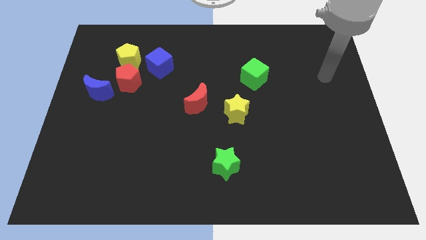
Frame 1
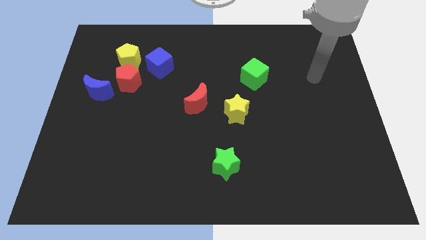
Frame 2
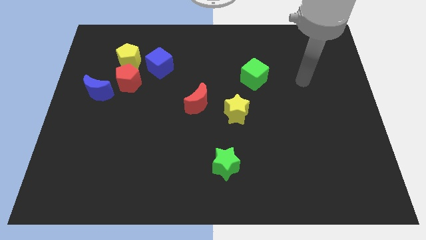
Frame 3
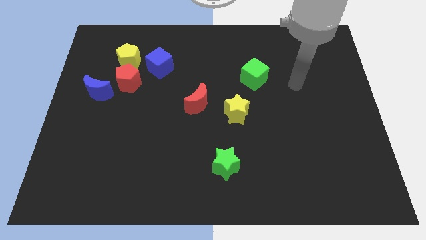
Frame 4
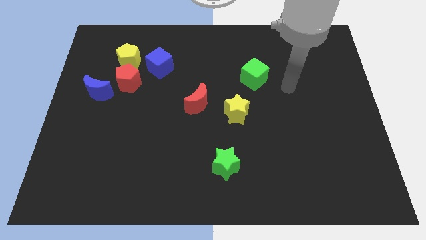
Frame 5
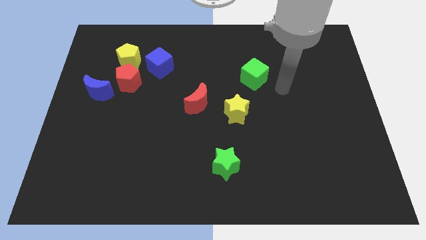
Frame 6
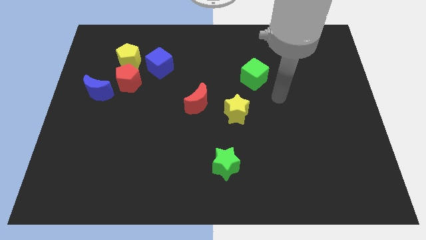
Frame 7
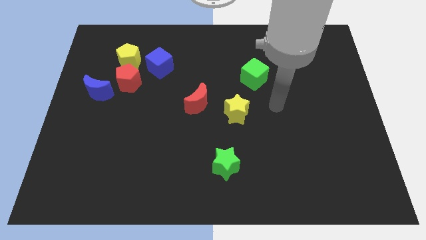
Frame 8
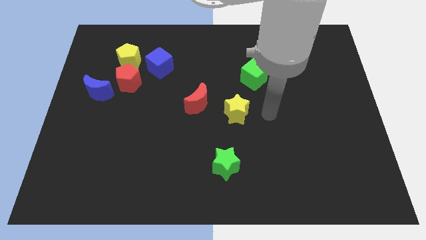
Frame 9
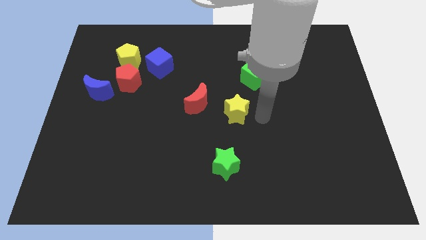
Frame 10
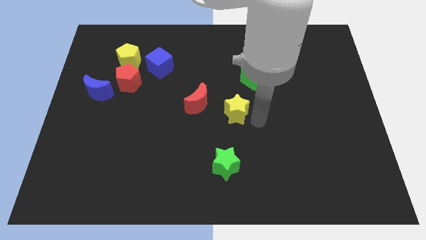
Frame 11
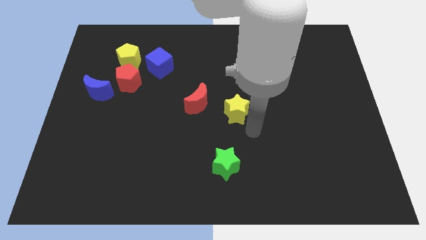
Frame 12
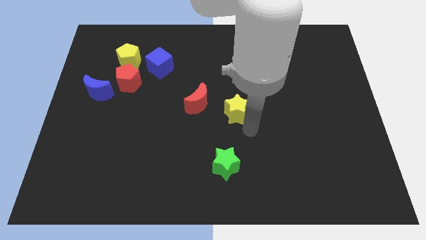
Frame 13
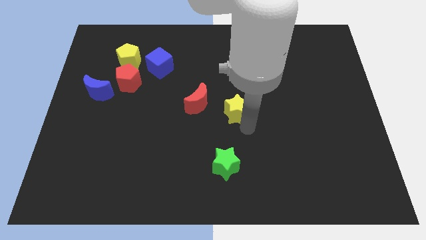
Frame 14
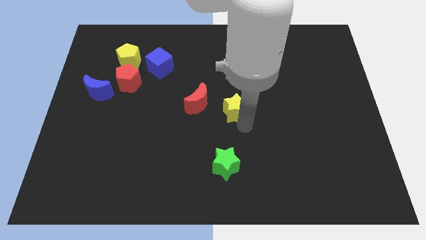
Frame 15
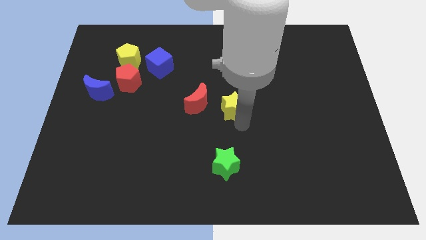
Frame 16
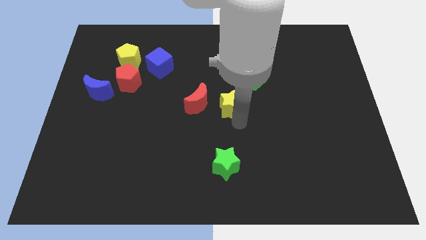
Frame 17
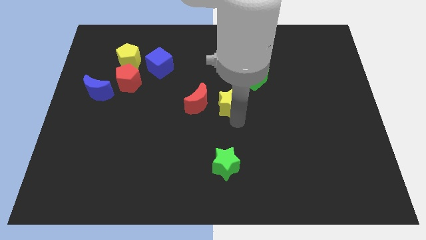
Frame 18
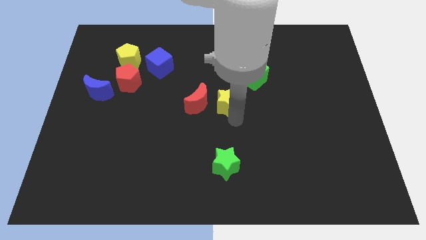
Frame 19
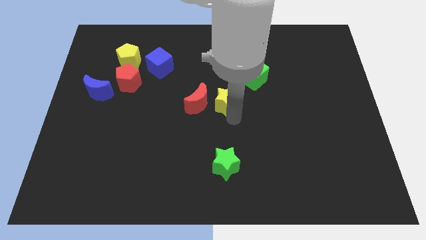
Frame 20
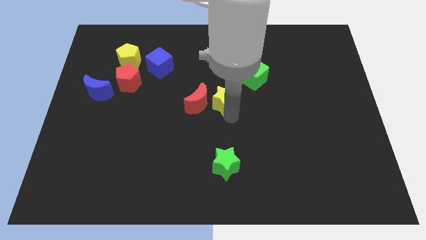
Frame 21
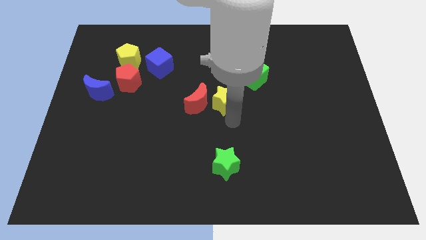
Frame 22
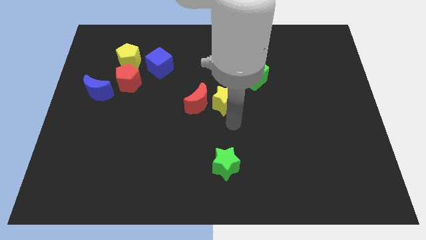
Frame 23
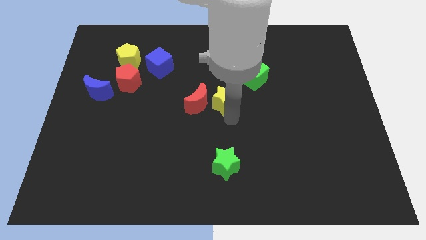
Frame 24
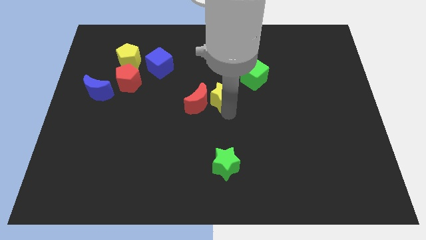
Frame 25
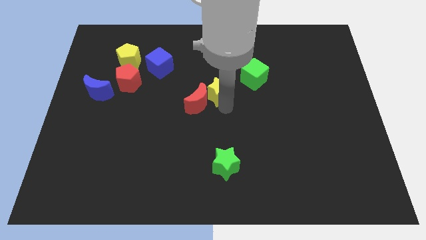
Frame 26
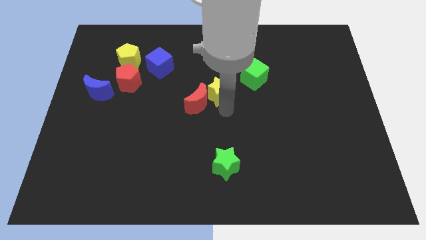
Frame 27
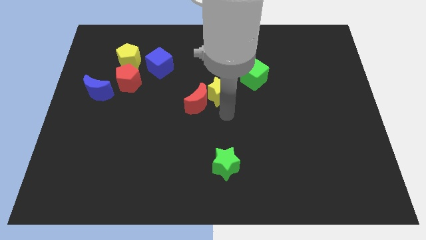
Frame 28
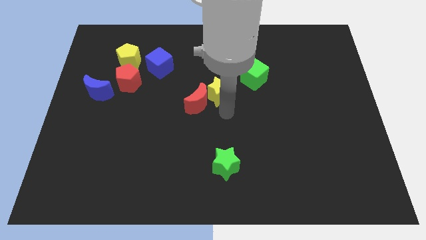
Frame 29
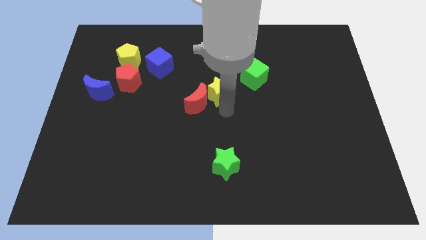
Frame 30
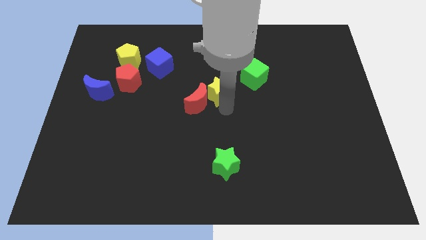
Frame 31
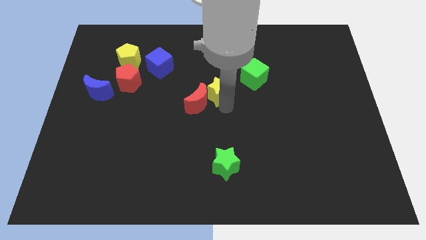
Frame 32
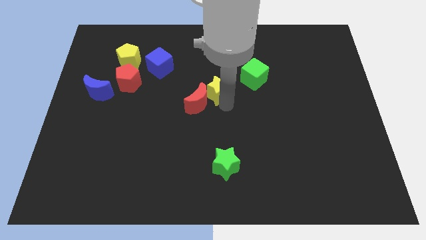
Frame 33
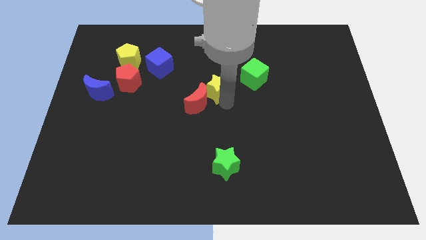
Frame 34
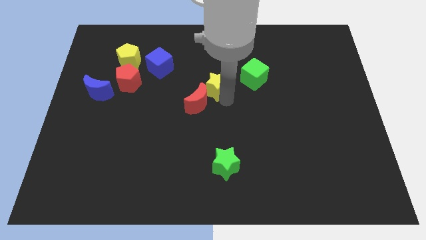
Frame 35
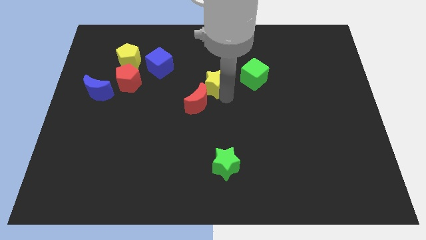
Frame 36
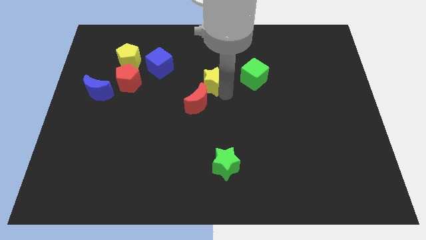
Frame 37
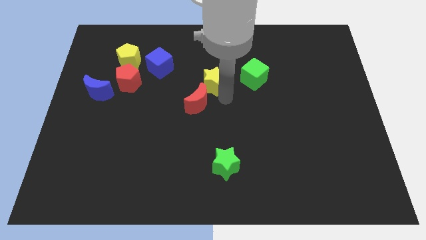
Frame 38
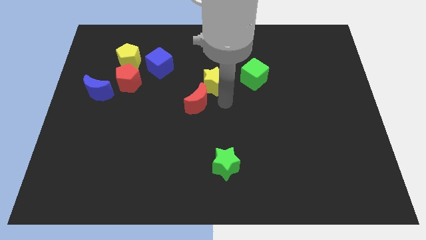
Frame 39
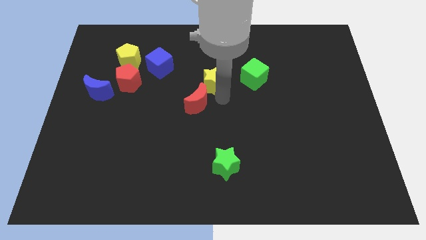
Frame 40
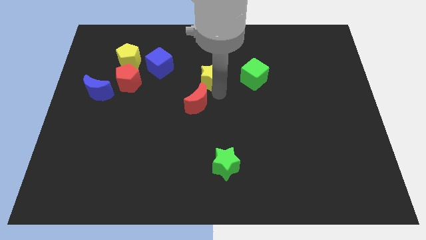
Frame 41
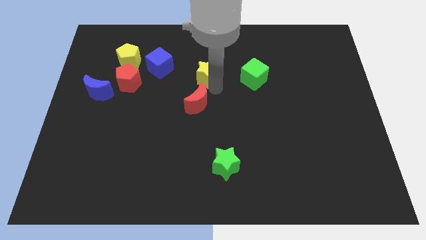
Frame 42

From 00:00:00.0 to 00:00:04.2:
put the yellow star just right of the blue cube

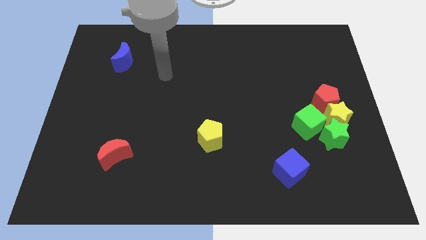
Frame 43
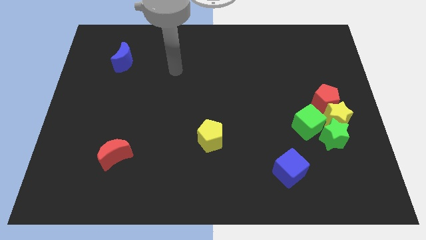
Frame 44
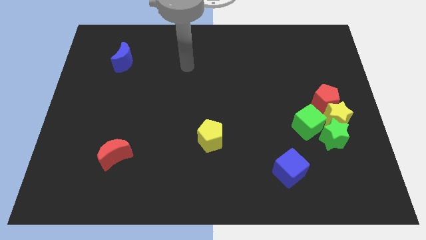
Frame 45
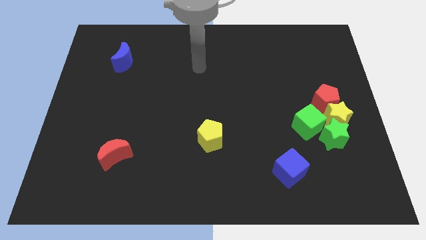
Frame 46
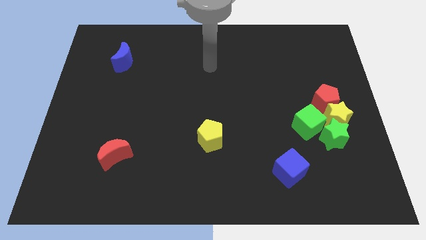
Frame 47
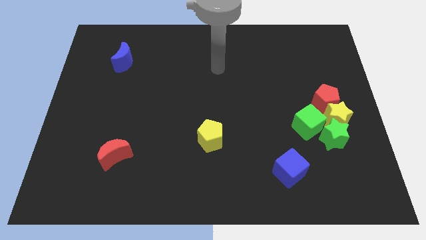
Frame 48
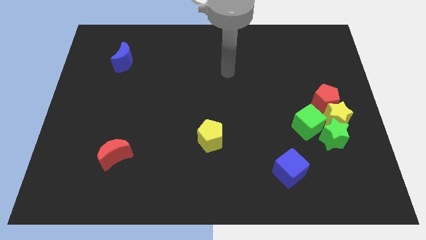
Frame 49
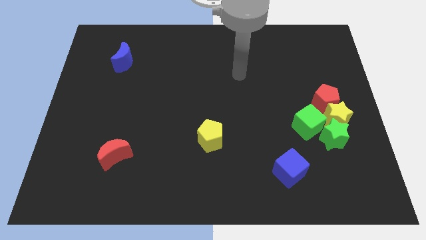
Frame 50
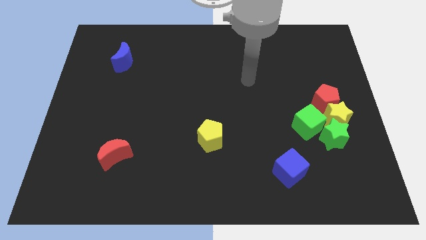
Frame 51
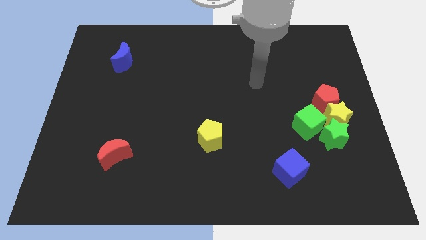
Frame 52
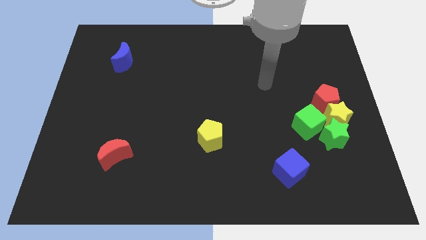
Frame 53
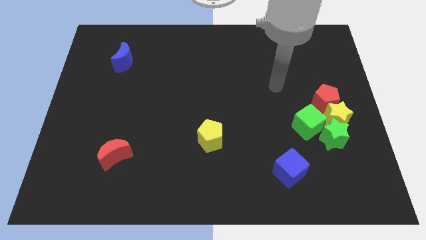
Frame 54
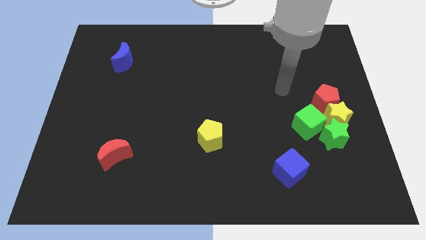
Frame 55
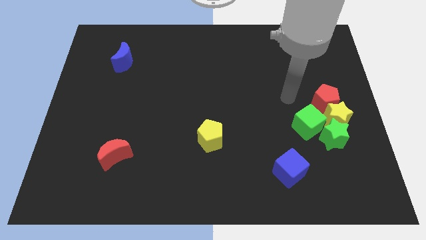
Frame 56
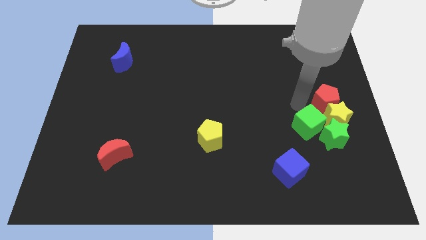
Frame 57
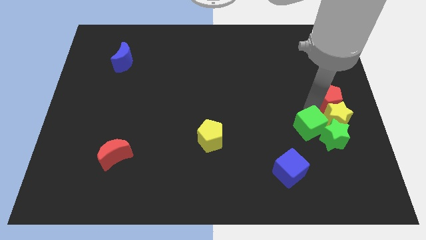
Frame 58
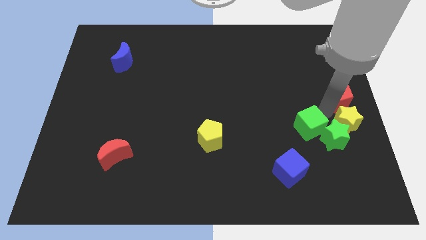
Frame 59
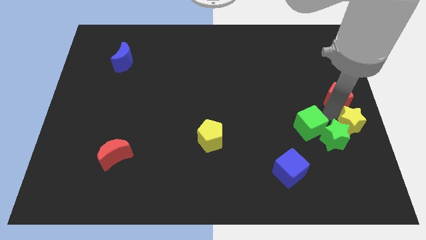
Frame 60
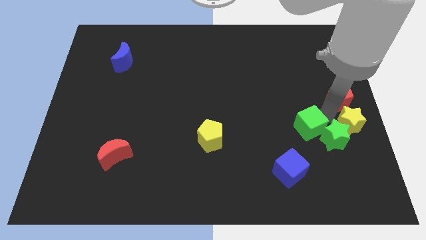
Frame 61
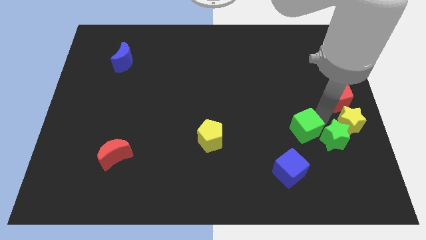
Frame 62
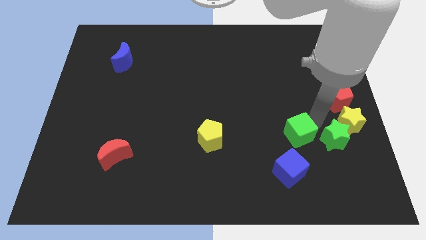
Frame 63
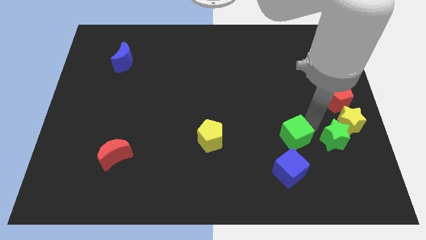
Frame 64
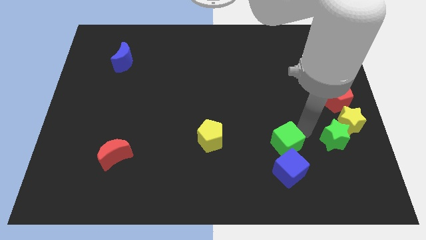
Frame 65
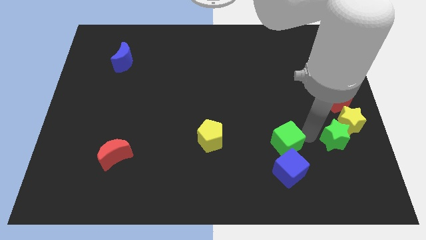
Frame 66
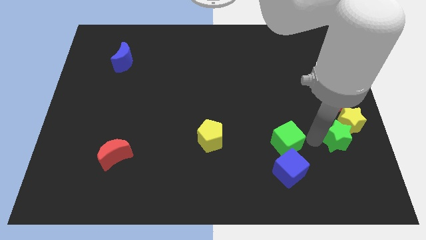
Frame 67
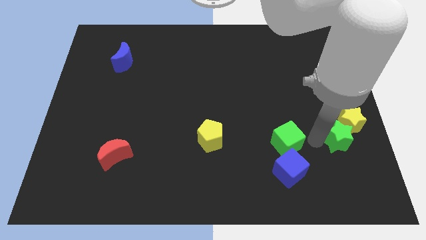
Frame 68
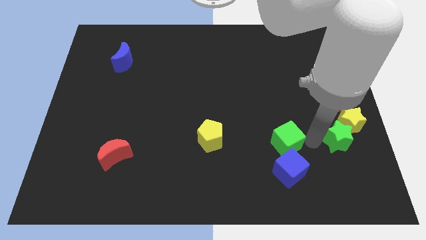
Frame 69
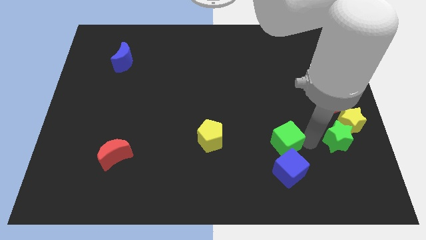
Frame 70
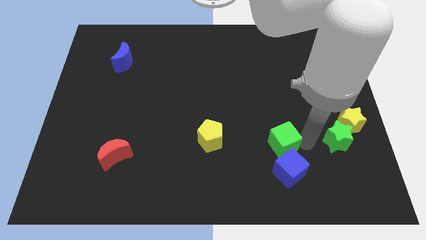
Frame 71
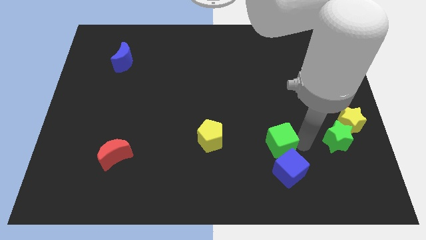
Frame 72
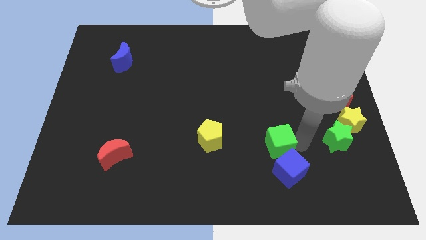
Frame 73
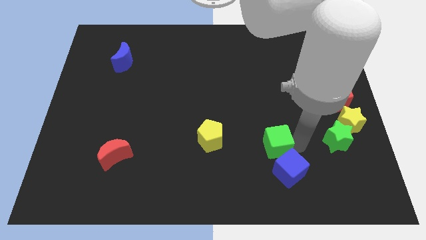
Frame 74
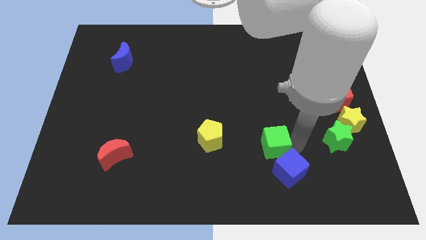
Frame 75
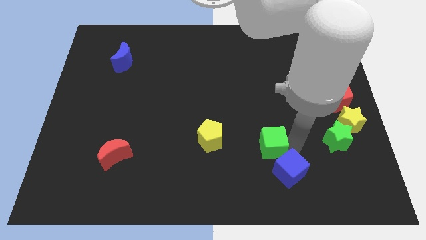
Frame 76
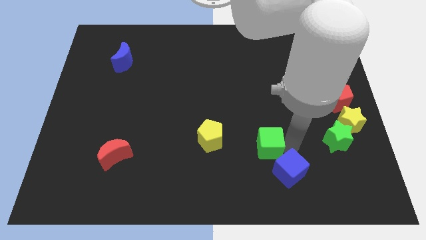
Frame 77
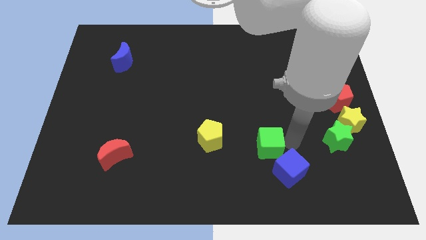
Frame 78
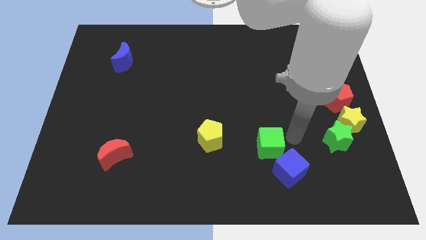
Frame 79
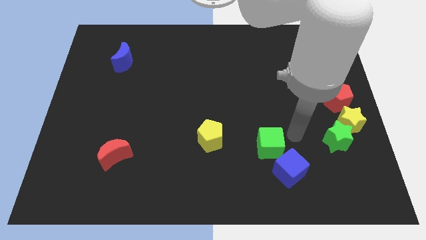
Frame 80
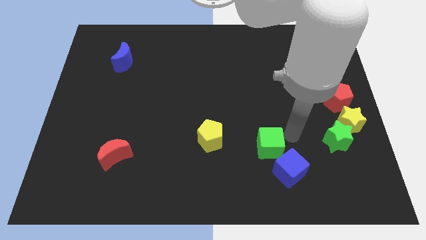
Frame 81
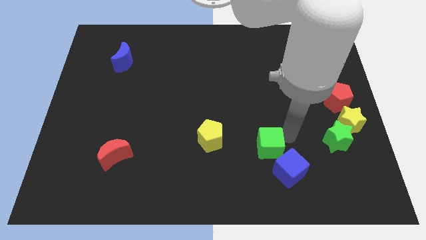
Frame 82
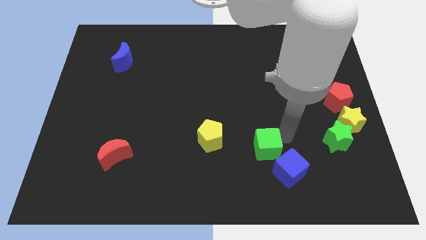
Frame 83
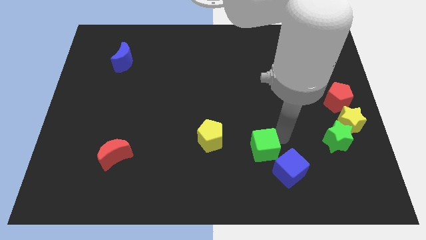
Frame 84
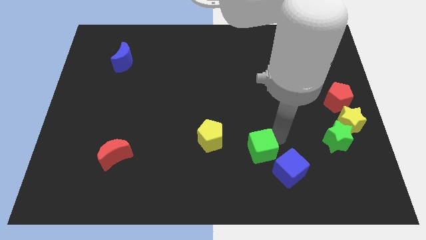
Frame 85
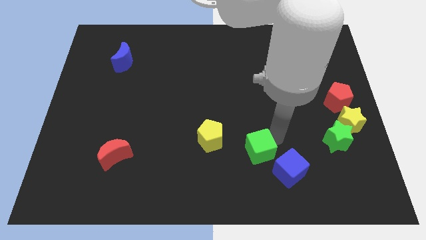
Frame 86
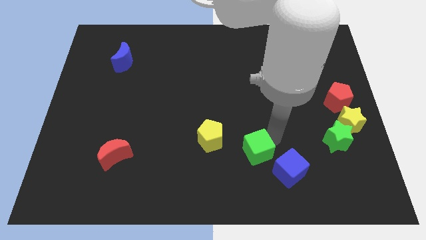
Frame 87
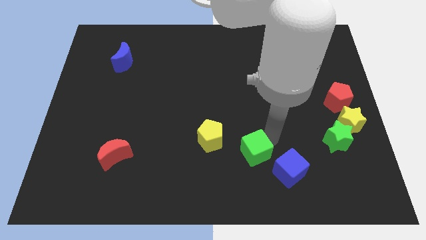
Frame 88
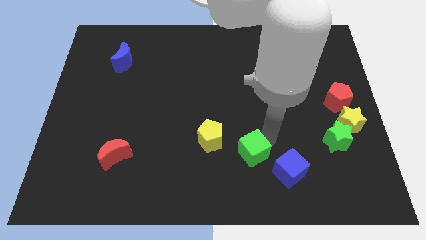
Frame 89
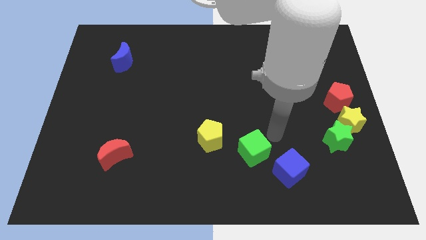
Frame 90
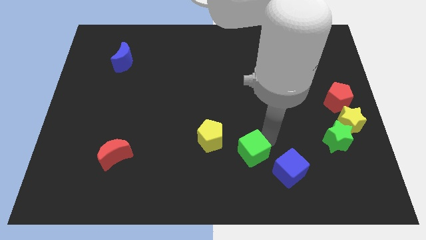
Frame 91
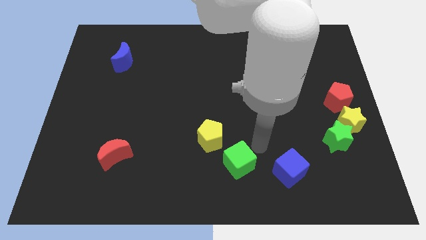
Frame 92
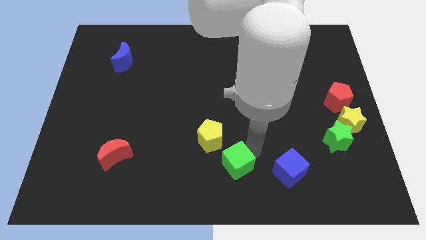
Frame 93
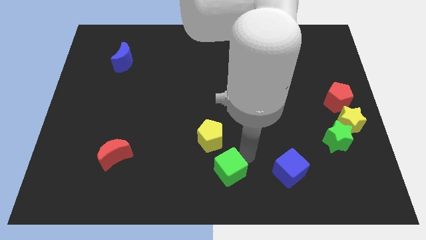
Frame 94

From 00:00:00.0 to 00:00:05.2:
put the green cube to the bottom side of the yellow pentagon
